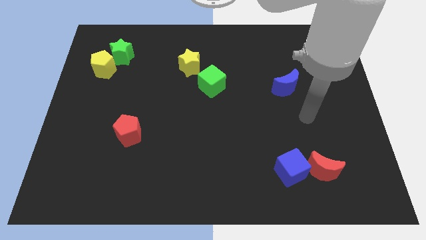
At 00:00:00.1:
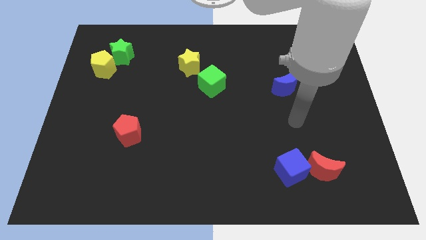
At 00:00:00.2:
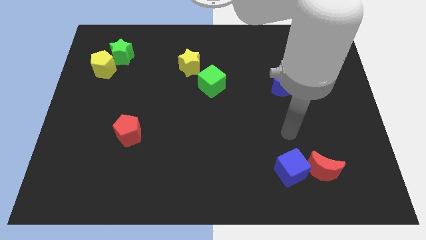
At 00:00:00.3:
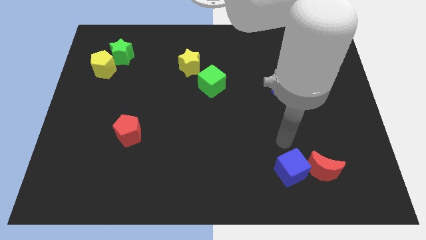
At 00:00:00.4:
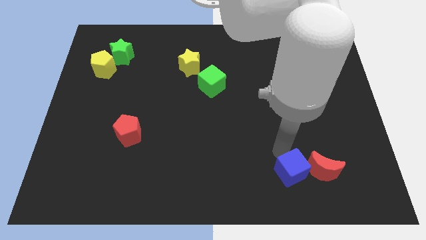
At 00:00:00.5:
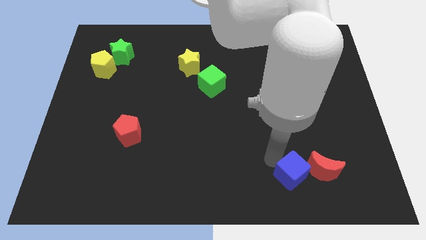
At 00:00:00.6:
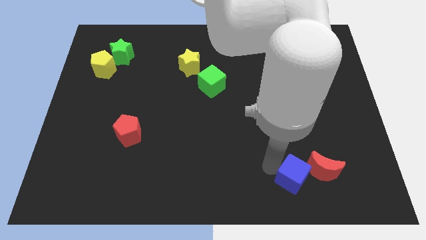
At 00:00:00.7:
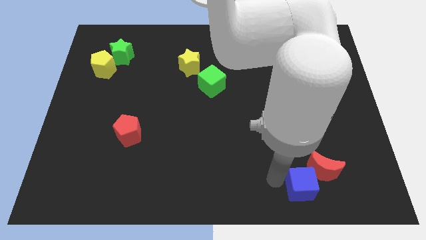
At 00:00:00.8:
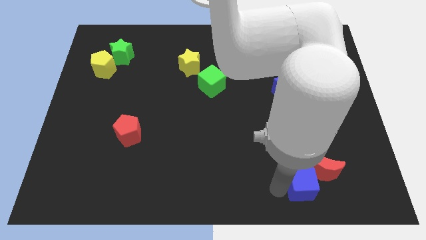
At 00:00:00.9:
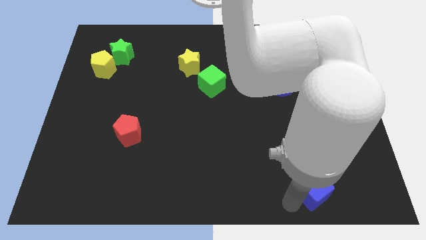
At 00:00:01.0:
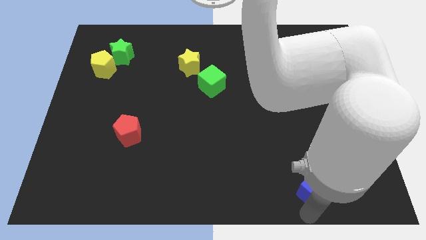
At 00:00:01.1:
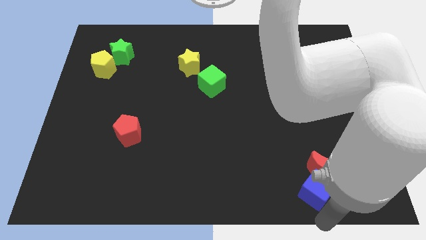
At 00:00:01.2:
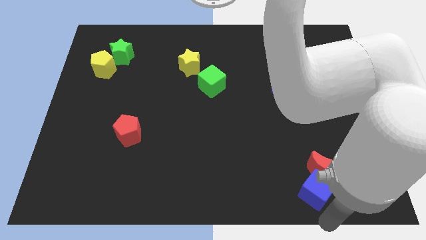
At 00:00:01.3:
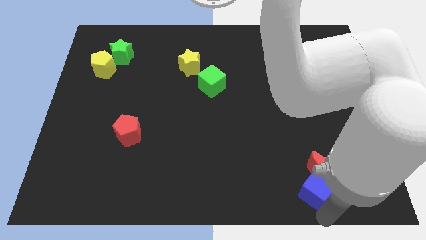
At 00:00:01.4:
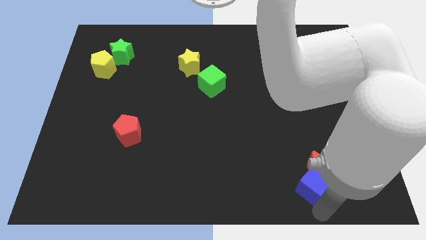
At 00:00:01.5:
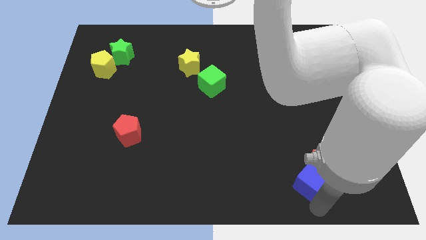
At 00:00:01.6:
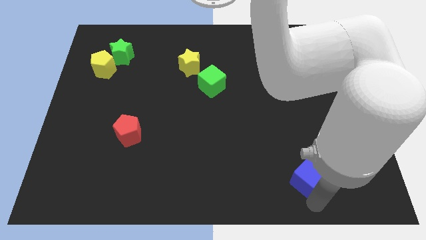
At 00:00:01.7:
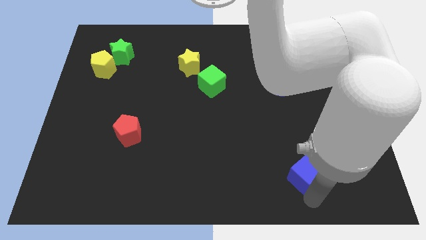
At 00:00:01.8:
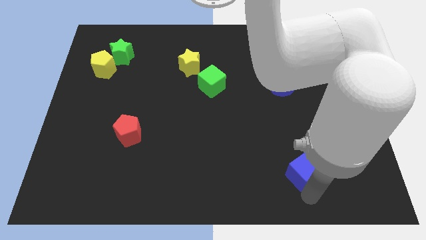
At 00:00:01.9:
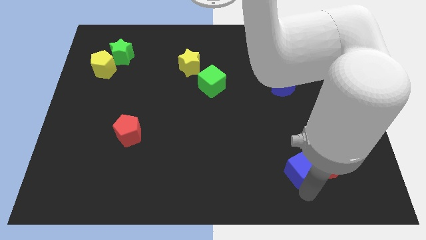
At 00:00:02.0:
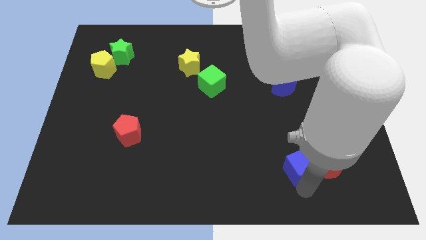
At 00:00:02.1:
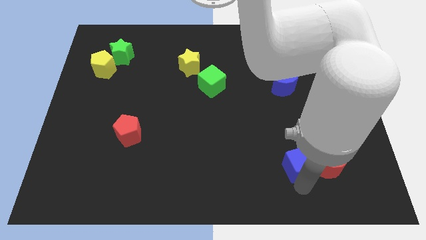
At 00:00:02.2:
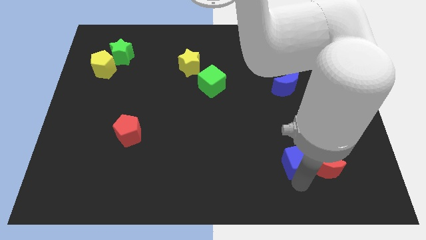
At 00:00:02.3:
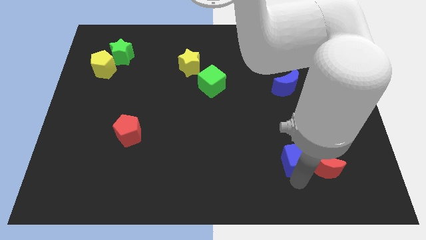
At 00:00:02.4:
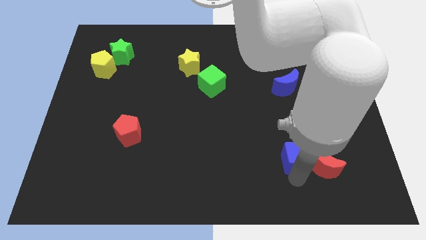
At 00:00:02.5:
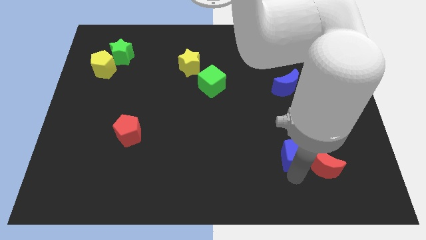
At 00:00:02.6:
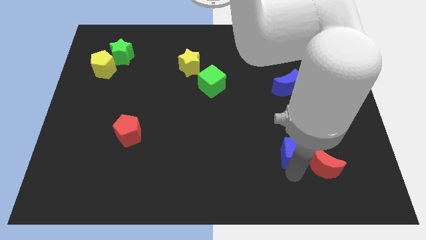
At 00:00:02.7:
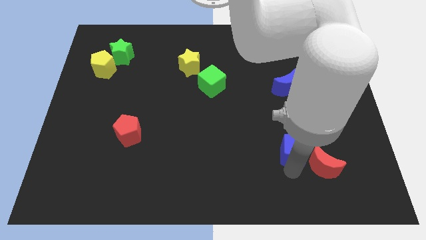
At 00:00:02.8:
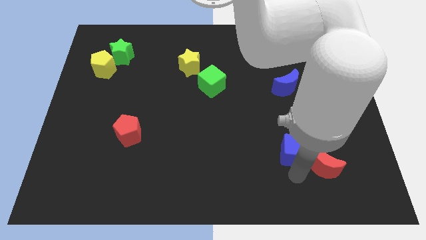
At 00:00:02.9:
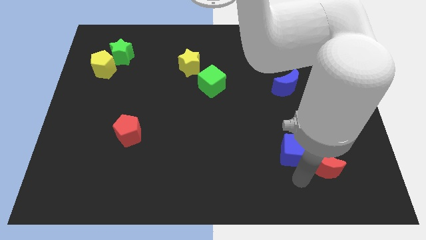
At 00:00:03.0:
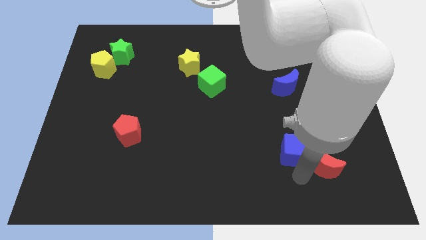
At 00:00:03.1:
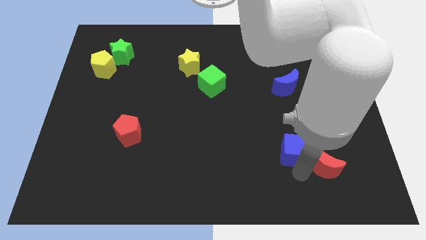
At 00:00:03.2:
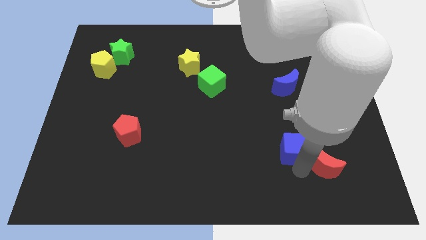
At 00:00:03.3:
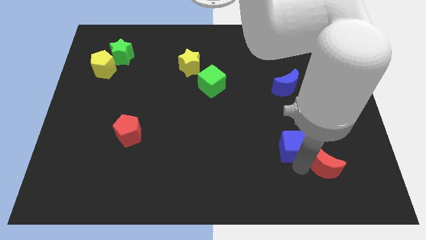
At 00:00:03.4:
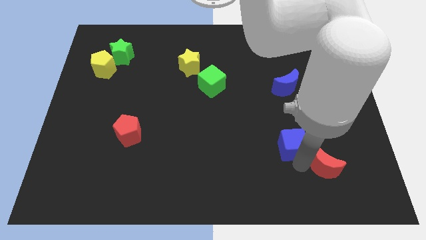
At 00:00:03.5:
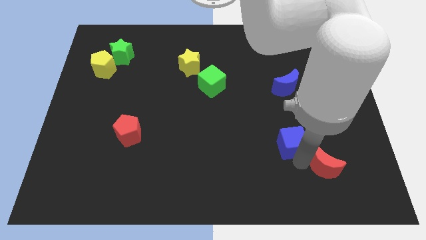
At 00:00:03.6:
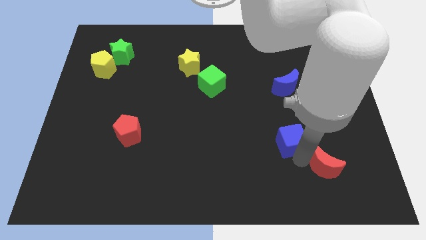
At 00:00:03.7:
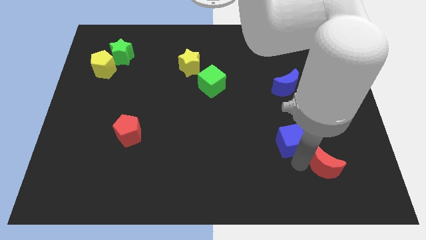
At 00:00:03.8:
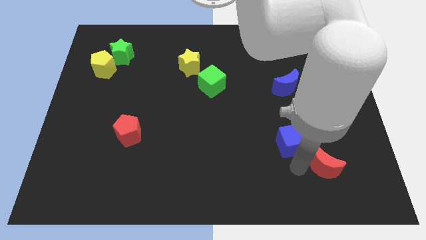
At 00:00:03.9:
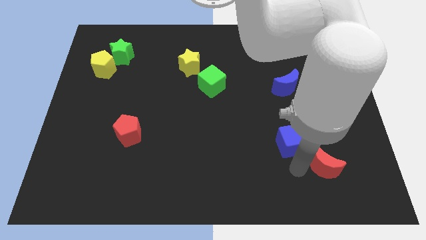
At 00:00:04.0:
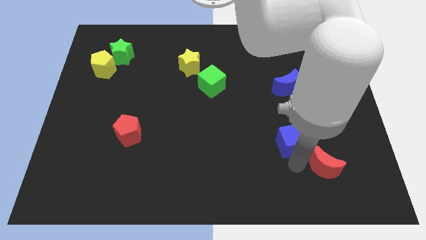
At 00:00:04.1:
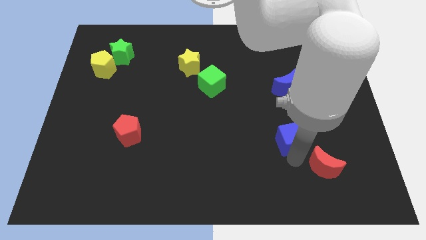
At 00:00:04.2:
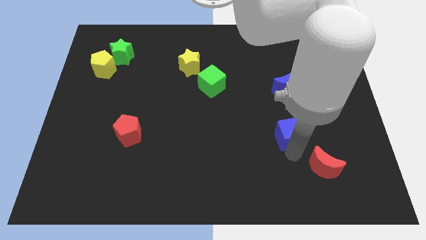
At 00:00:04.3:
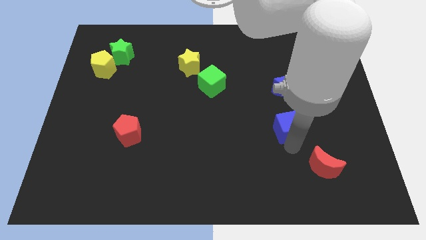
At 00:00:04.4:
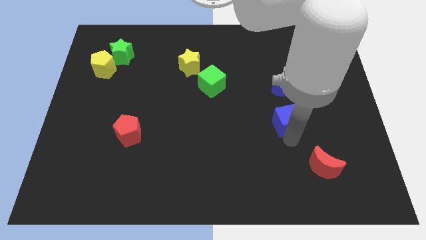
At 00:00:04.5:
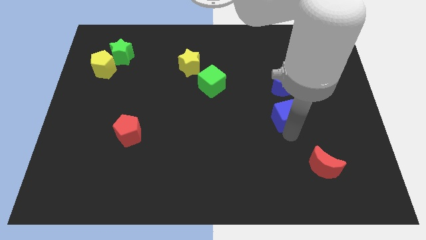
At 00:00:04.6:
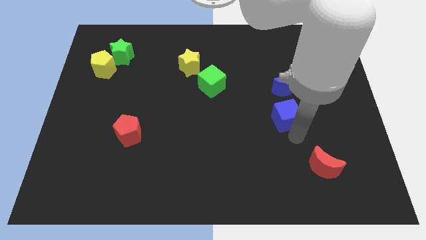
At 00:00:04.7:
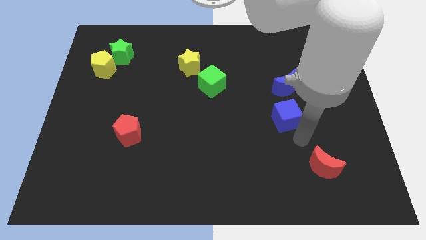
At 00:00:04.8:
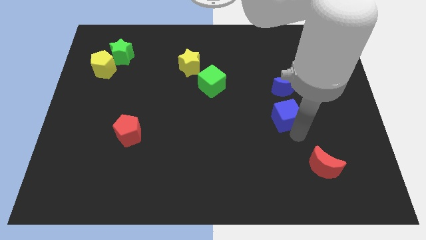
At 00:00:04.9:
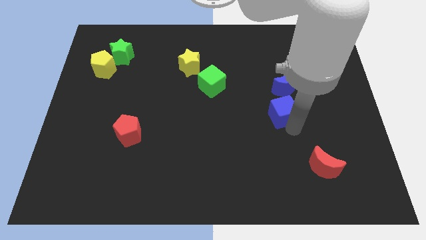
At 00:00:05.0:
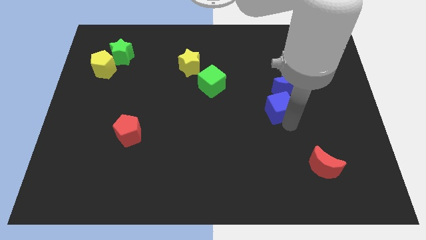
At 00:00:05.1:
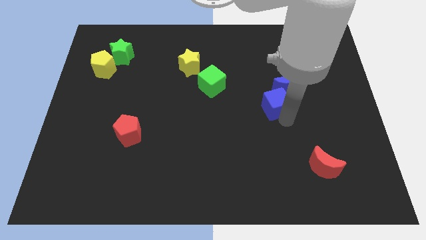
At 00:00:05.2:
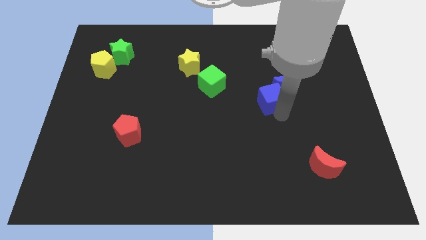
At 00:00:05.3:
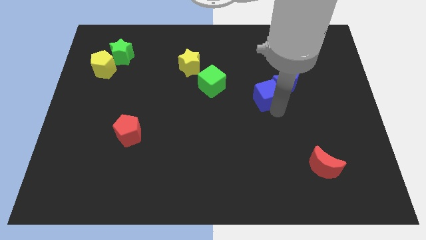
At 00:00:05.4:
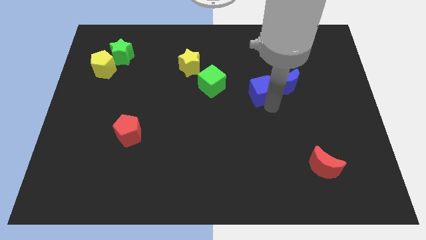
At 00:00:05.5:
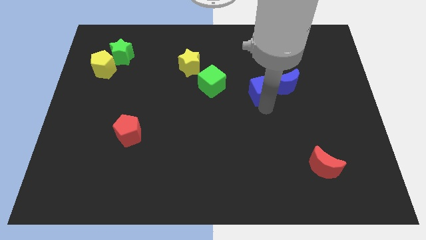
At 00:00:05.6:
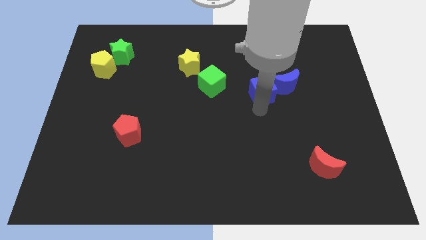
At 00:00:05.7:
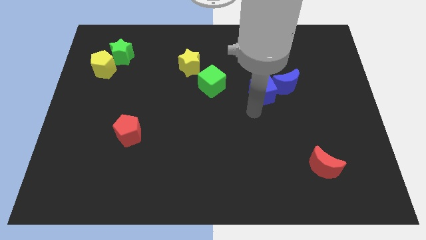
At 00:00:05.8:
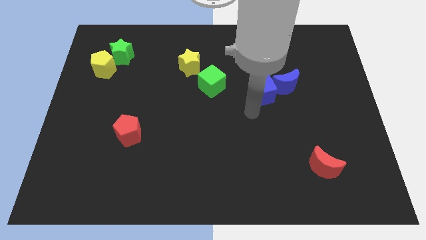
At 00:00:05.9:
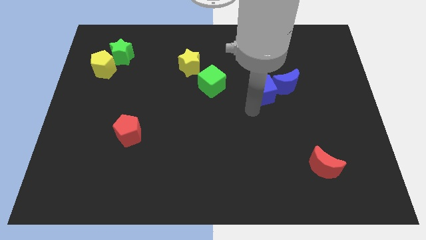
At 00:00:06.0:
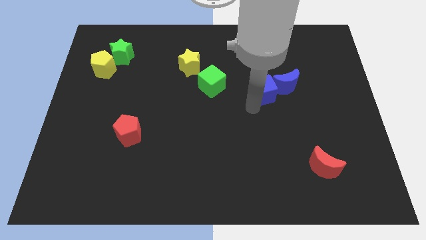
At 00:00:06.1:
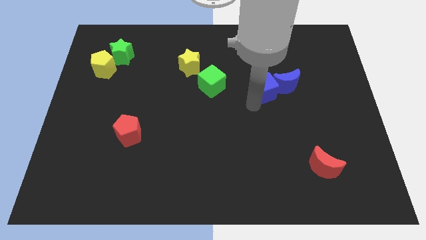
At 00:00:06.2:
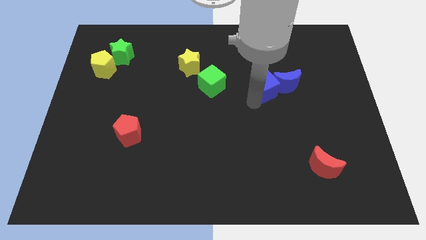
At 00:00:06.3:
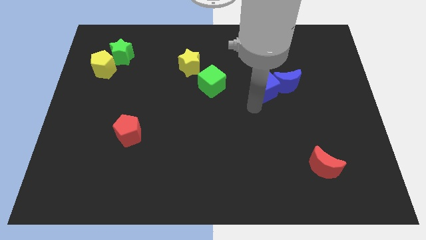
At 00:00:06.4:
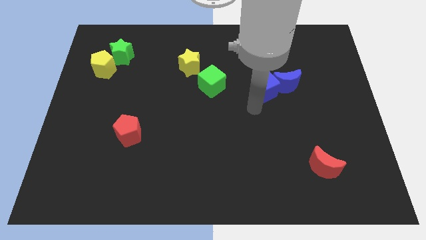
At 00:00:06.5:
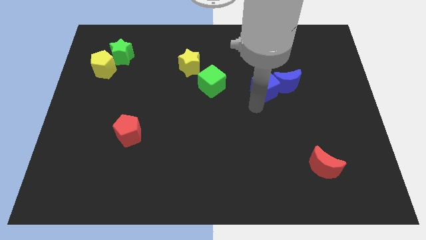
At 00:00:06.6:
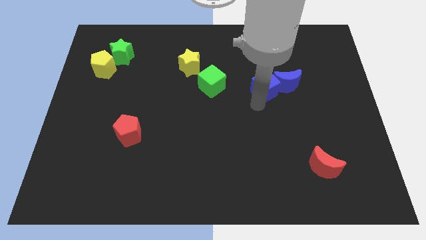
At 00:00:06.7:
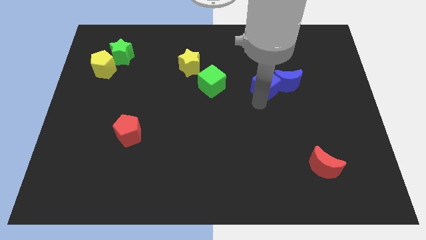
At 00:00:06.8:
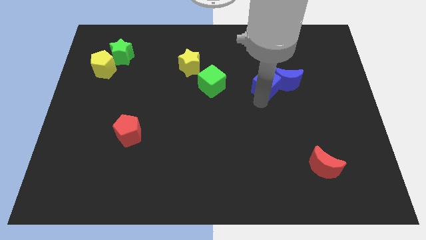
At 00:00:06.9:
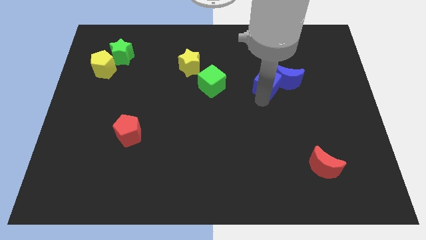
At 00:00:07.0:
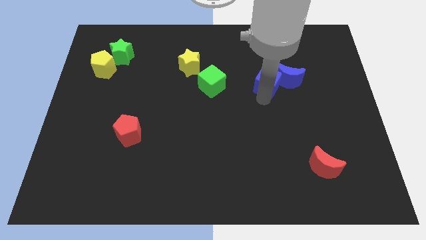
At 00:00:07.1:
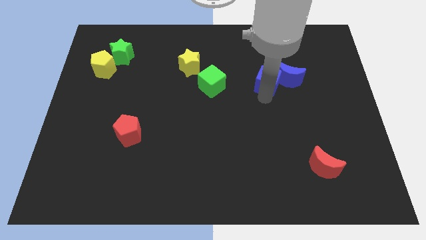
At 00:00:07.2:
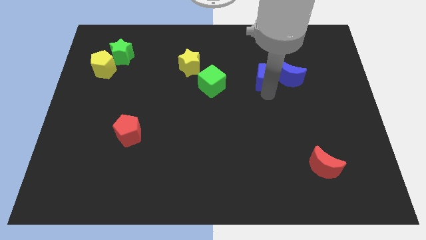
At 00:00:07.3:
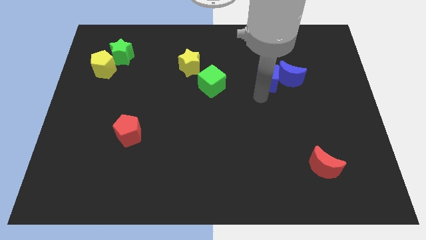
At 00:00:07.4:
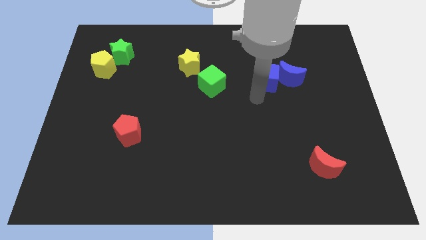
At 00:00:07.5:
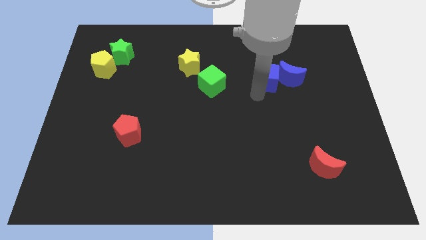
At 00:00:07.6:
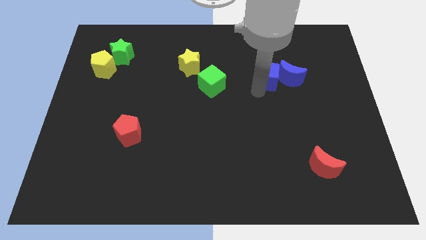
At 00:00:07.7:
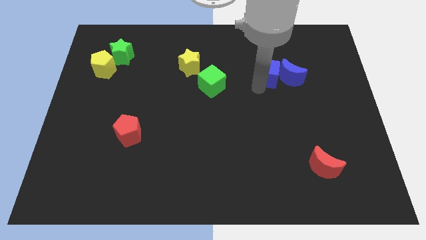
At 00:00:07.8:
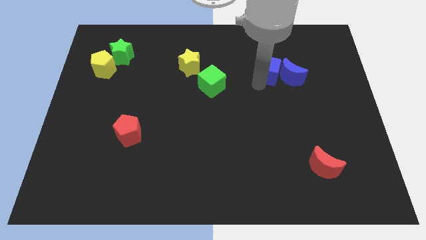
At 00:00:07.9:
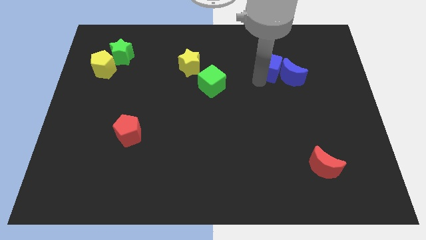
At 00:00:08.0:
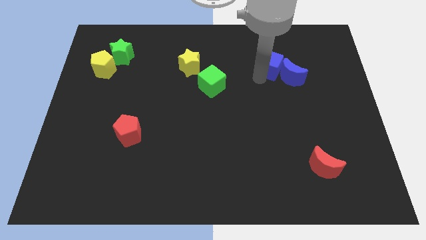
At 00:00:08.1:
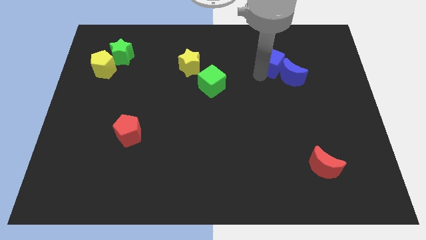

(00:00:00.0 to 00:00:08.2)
put the blue cube to the top of the blue moon
